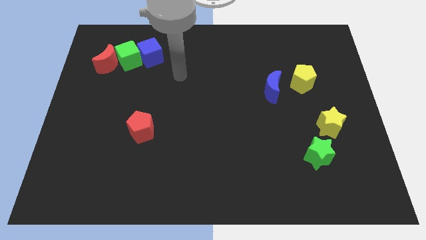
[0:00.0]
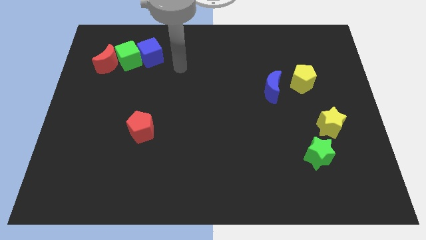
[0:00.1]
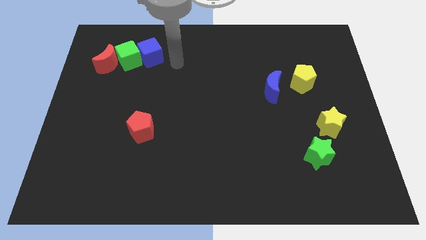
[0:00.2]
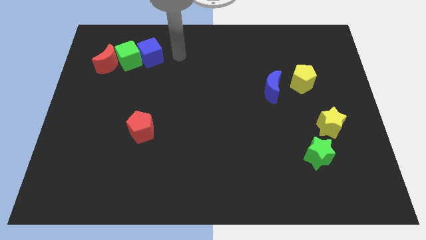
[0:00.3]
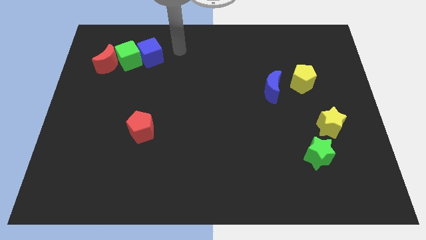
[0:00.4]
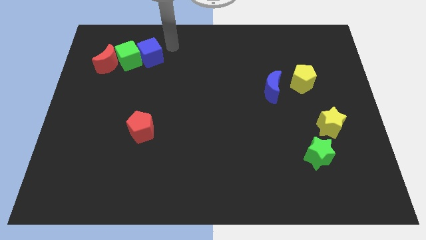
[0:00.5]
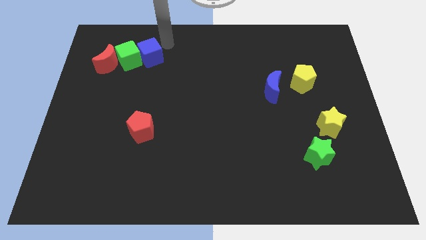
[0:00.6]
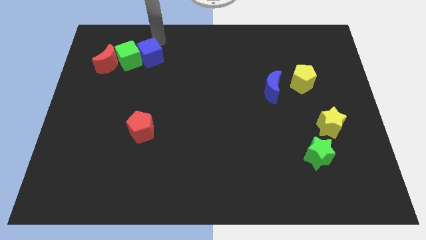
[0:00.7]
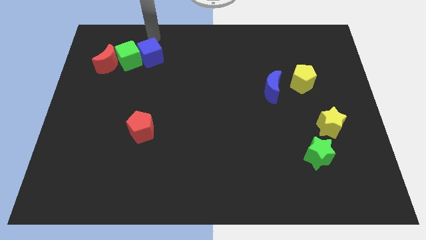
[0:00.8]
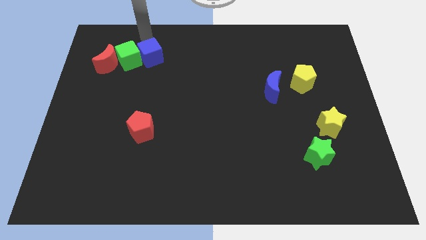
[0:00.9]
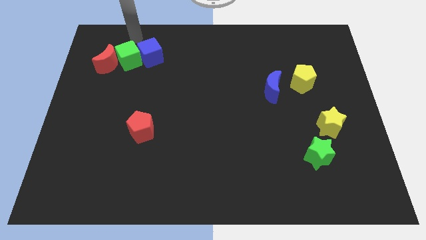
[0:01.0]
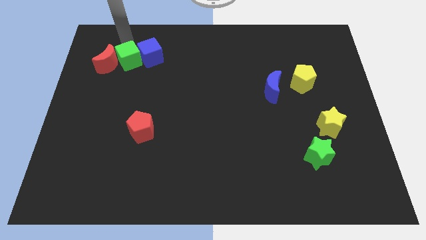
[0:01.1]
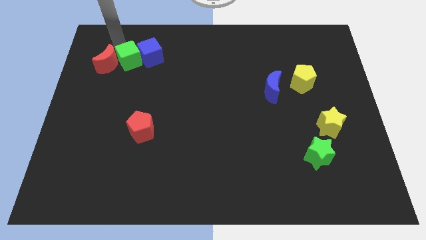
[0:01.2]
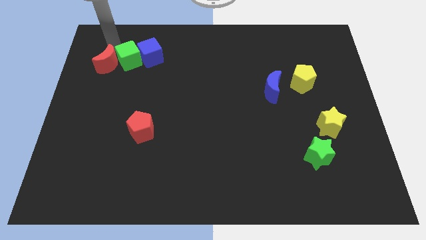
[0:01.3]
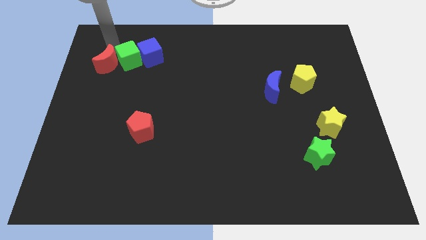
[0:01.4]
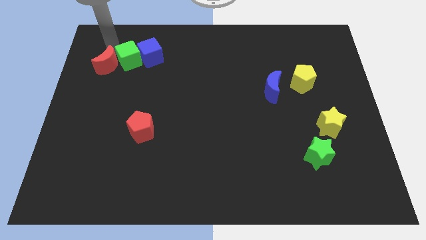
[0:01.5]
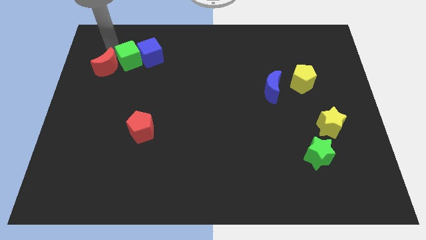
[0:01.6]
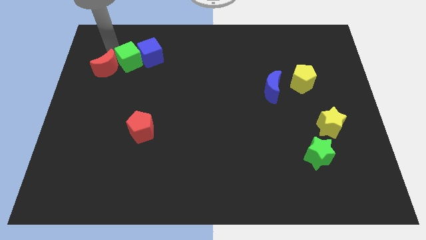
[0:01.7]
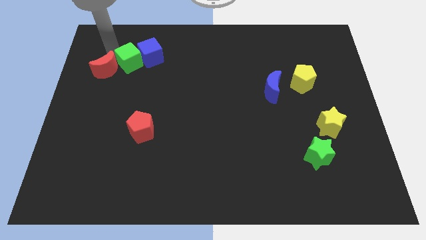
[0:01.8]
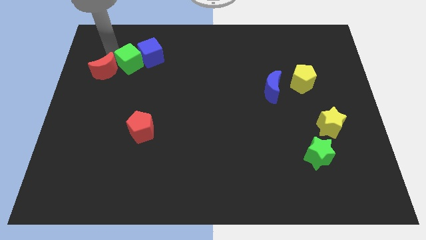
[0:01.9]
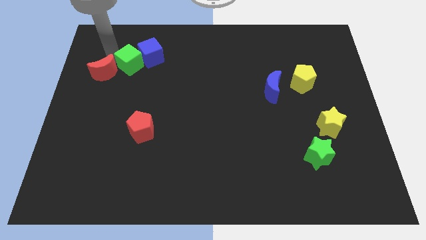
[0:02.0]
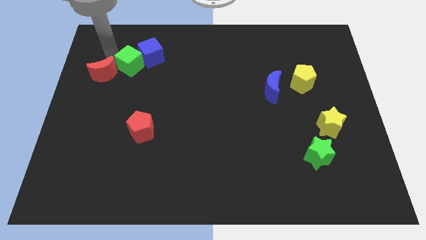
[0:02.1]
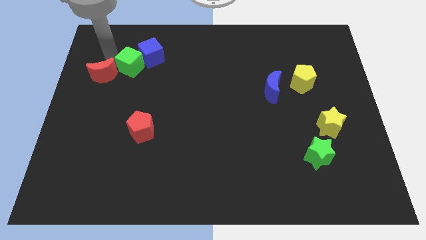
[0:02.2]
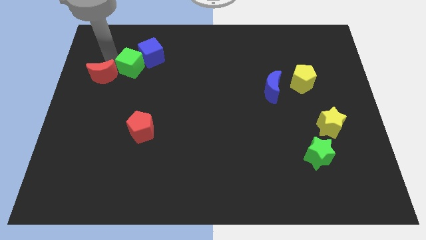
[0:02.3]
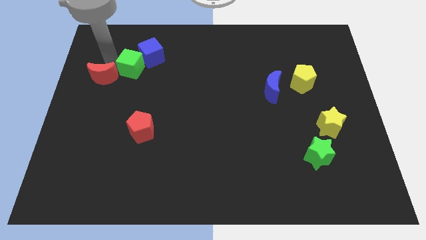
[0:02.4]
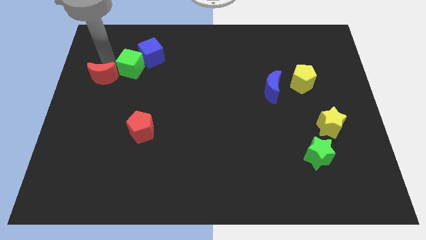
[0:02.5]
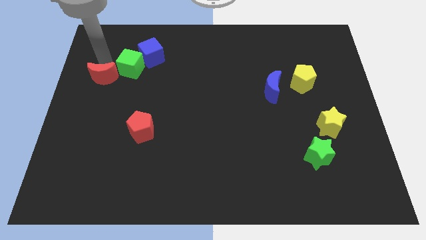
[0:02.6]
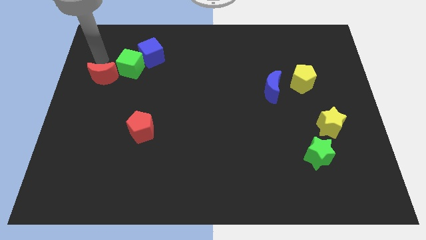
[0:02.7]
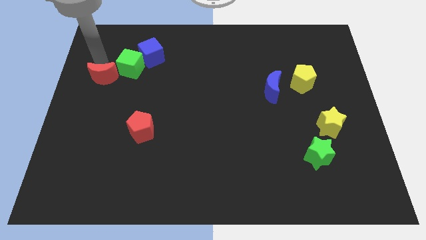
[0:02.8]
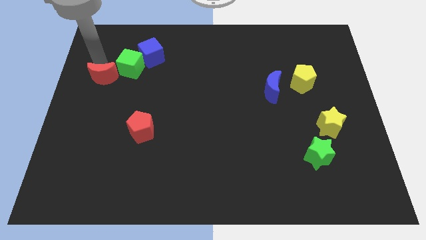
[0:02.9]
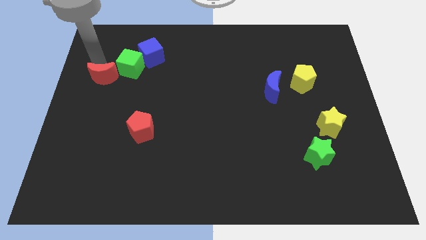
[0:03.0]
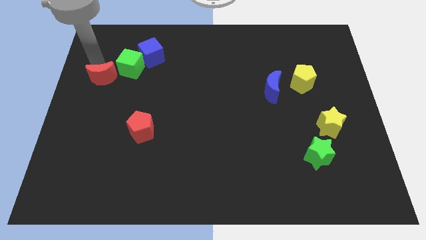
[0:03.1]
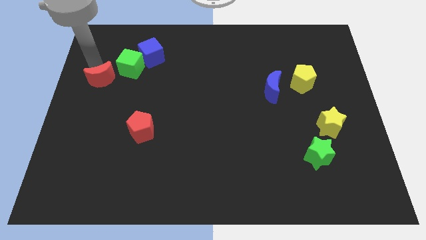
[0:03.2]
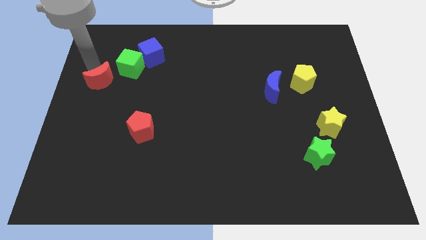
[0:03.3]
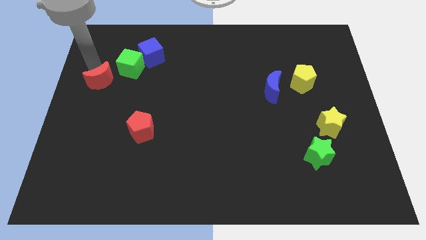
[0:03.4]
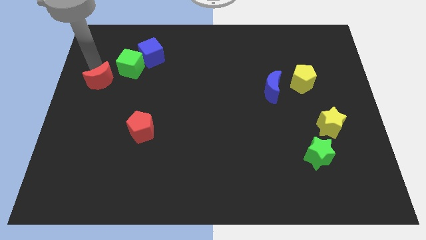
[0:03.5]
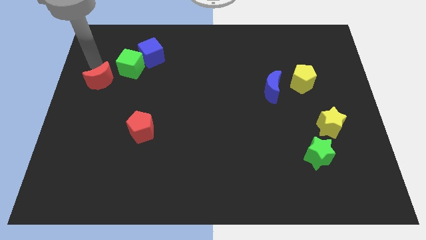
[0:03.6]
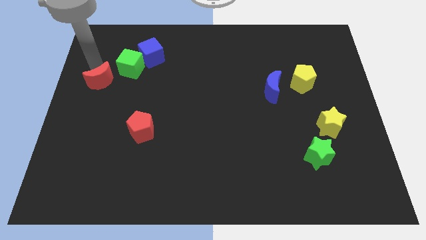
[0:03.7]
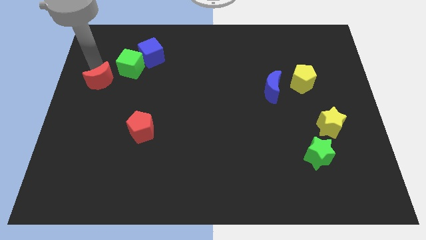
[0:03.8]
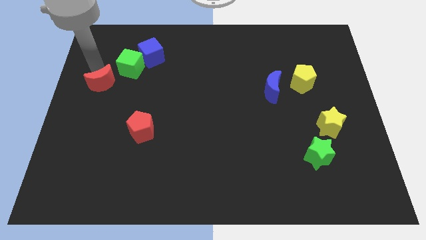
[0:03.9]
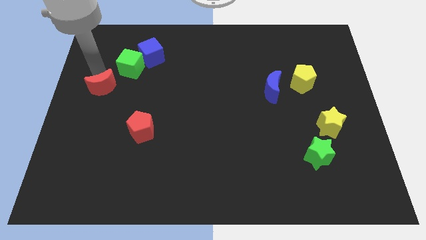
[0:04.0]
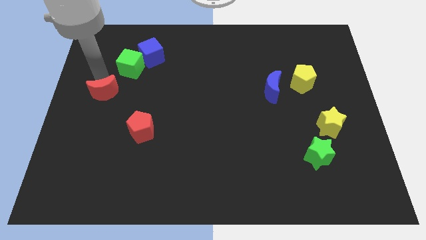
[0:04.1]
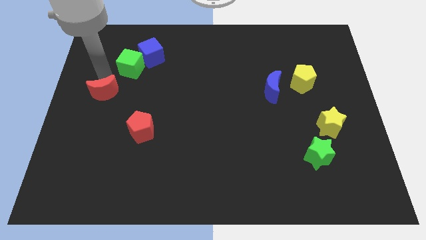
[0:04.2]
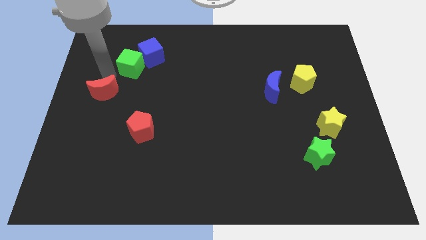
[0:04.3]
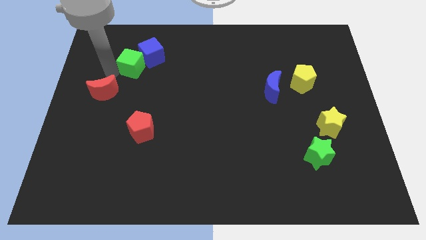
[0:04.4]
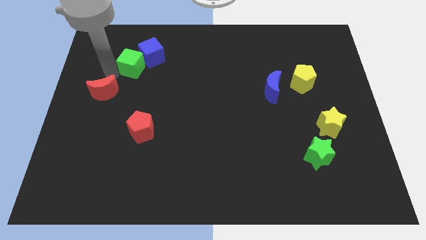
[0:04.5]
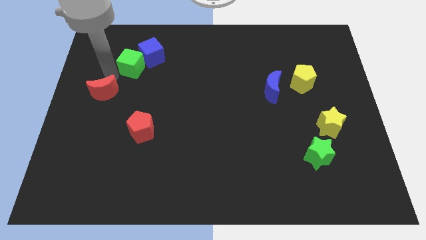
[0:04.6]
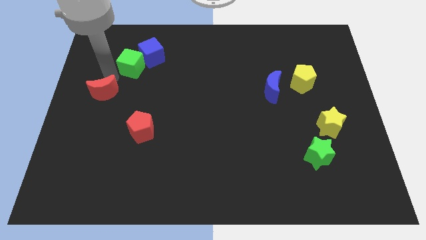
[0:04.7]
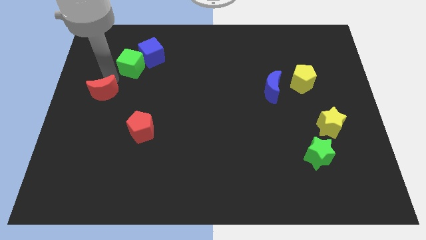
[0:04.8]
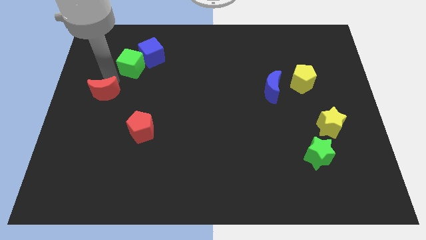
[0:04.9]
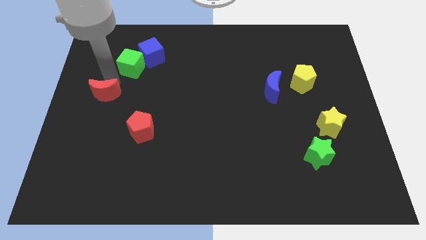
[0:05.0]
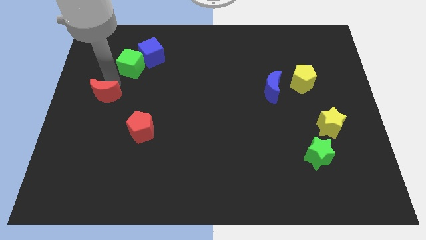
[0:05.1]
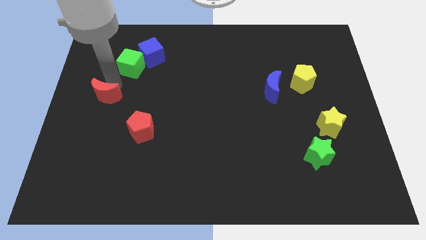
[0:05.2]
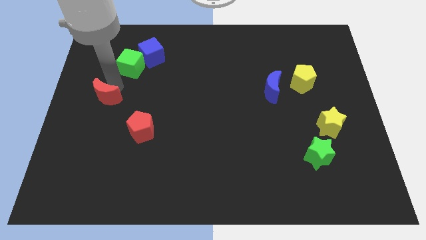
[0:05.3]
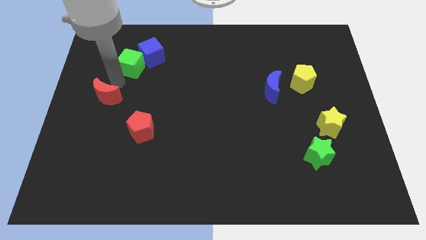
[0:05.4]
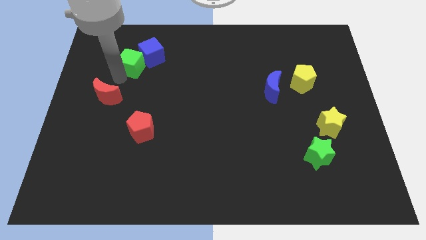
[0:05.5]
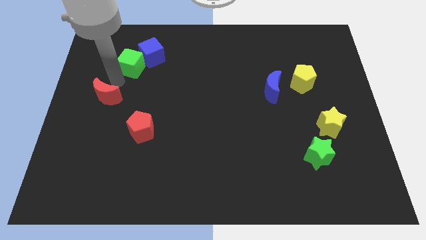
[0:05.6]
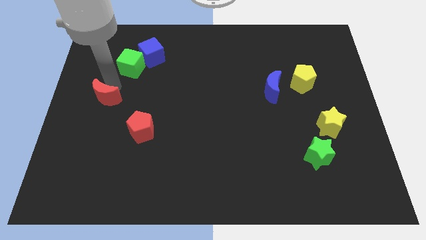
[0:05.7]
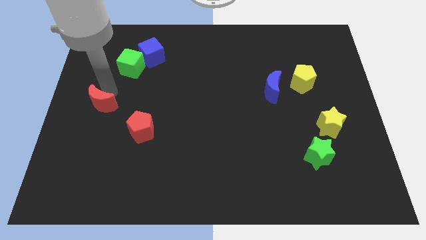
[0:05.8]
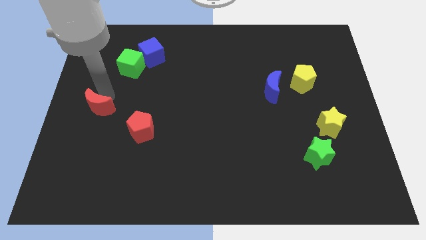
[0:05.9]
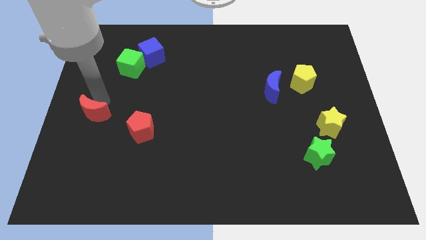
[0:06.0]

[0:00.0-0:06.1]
slide the red moon to the left of the red pentagon

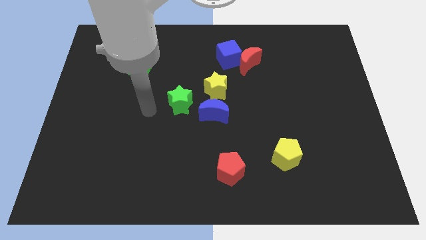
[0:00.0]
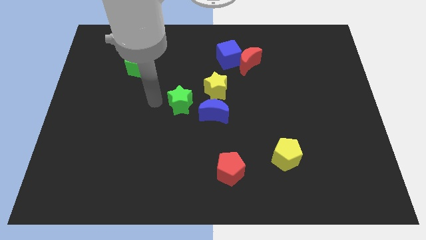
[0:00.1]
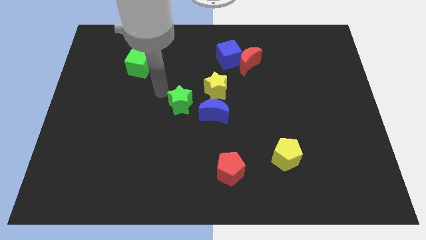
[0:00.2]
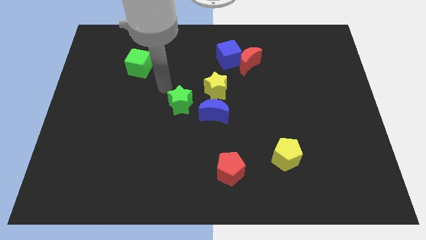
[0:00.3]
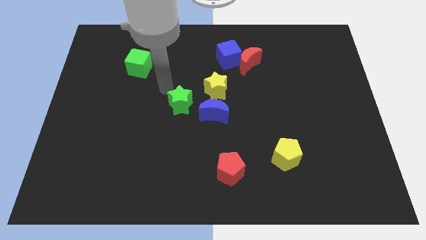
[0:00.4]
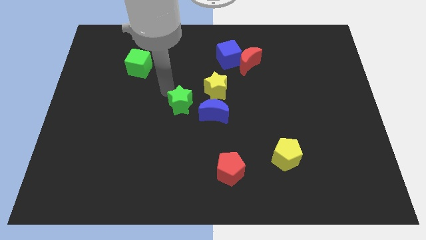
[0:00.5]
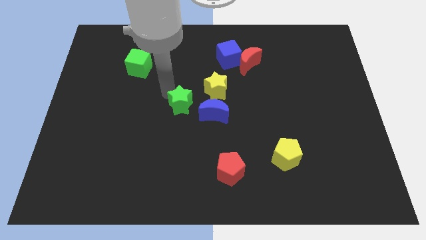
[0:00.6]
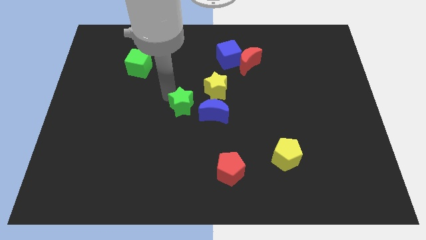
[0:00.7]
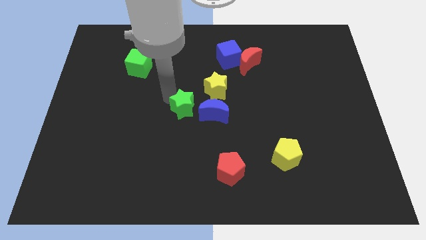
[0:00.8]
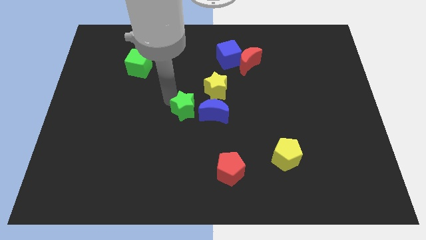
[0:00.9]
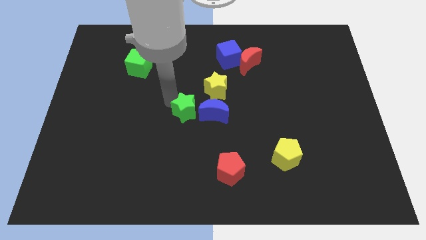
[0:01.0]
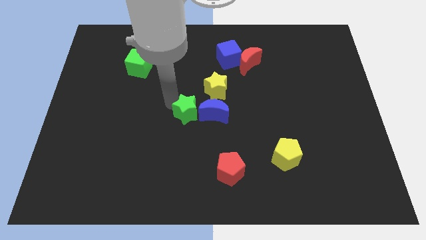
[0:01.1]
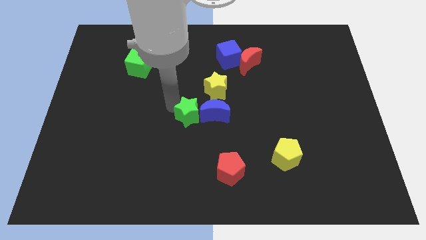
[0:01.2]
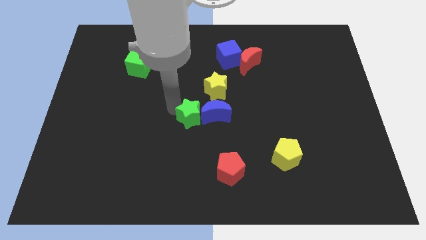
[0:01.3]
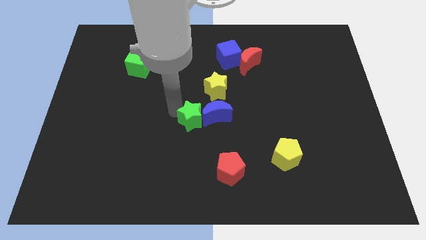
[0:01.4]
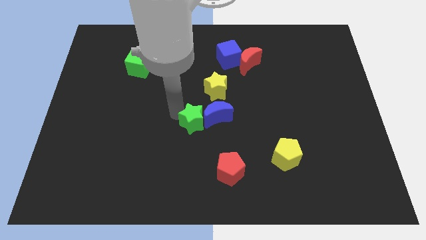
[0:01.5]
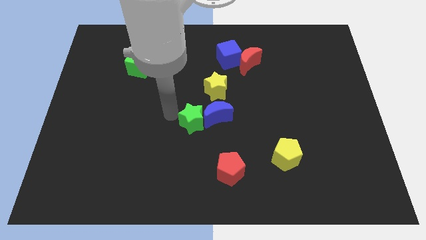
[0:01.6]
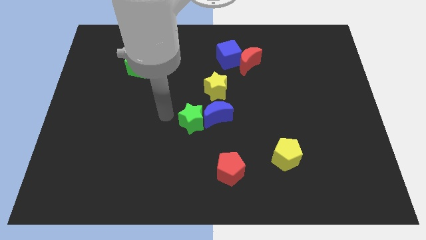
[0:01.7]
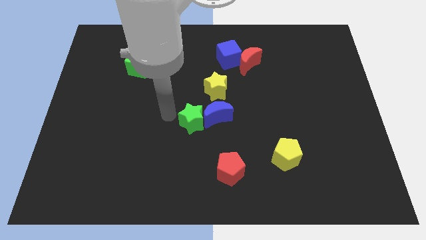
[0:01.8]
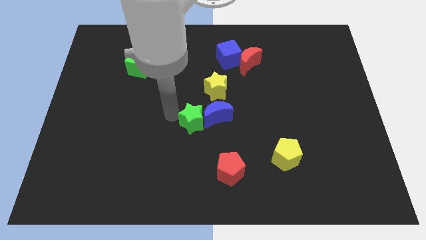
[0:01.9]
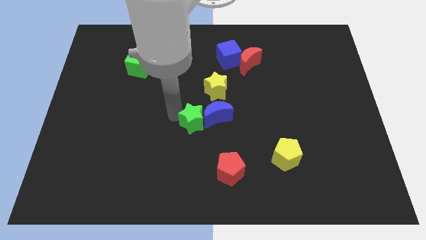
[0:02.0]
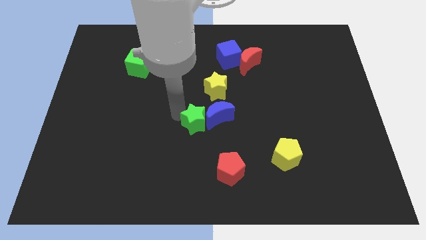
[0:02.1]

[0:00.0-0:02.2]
move the green star below the yellow star
